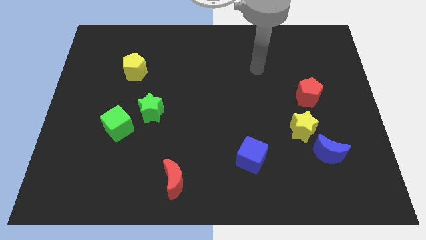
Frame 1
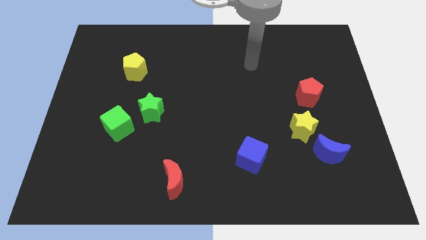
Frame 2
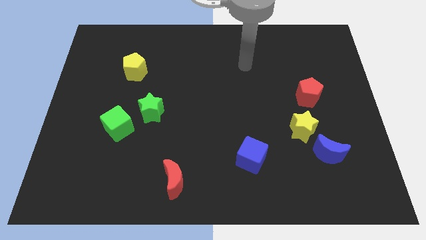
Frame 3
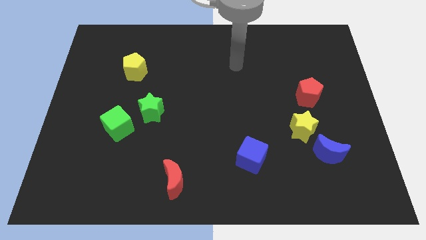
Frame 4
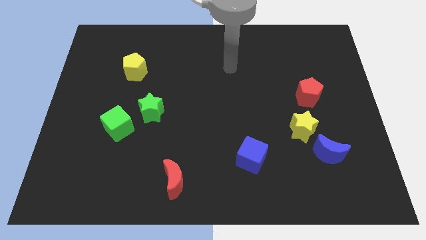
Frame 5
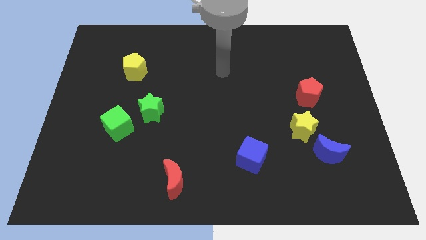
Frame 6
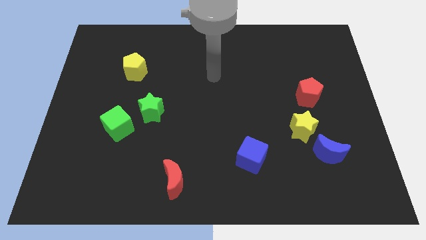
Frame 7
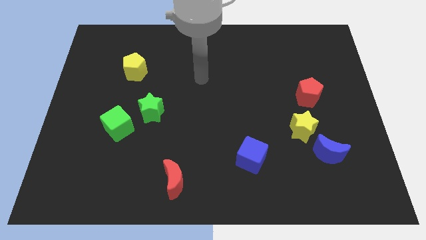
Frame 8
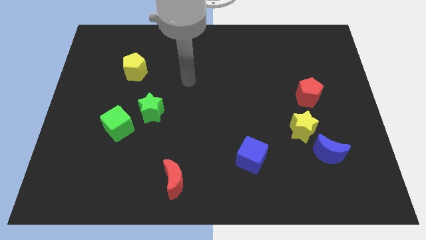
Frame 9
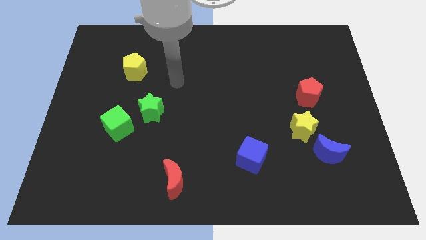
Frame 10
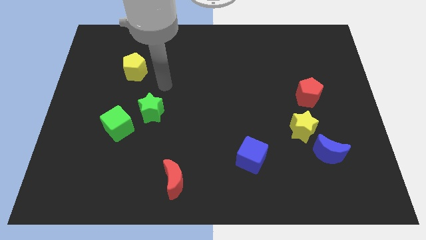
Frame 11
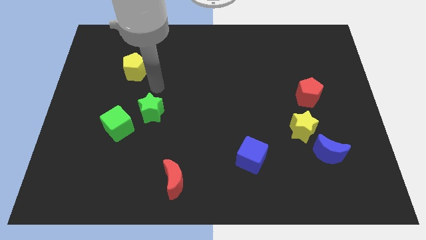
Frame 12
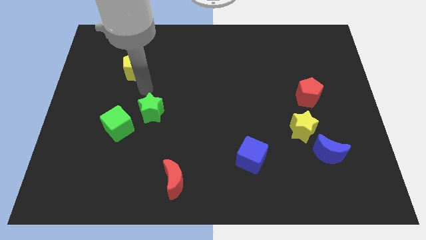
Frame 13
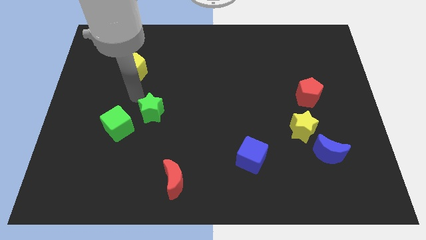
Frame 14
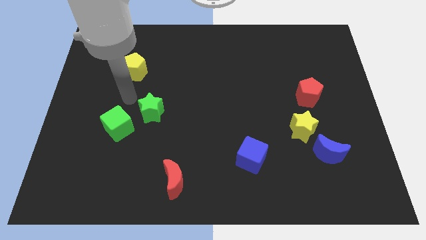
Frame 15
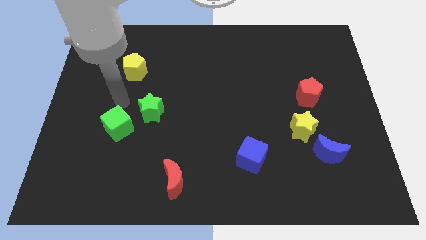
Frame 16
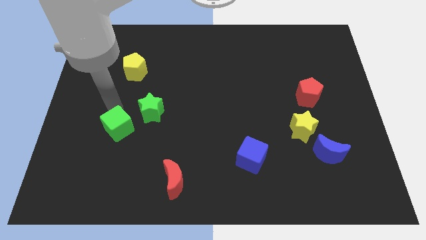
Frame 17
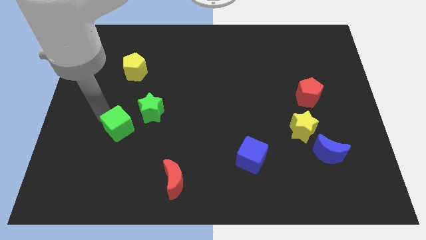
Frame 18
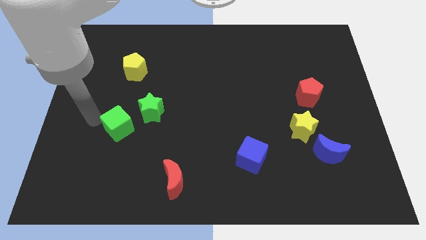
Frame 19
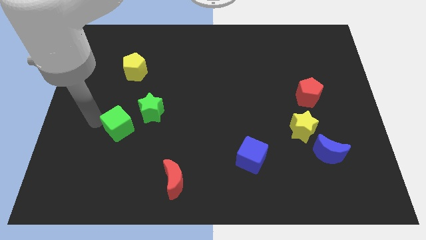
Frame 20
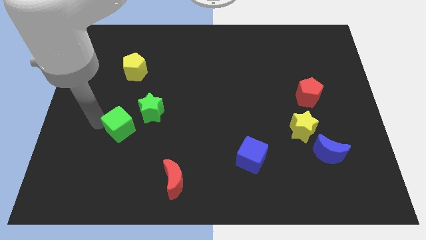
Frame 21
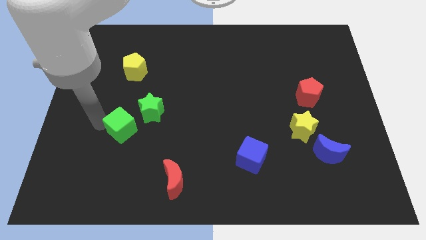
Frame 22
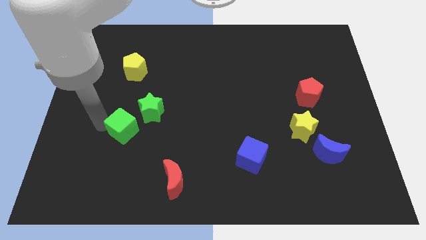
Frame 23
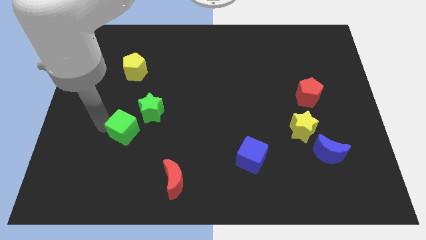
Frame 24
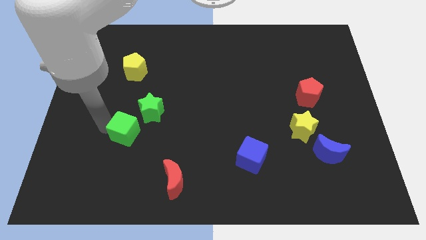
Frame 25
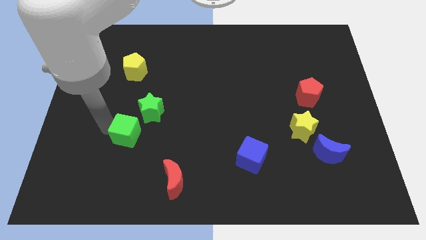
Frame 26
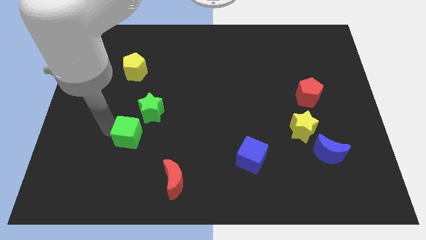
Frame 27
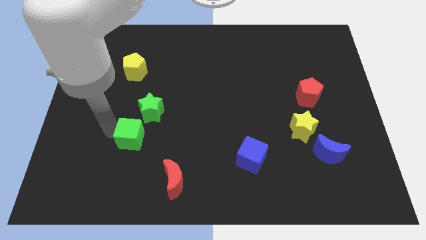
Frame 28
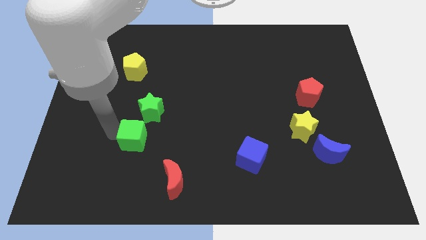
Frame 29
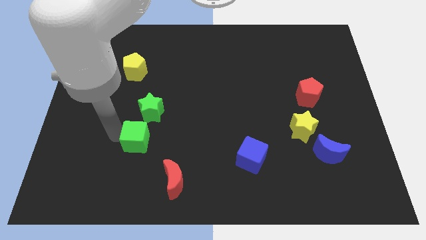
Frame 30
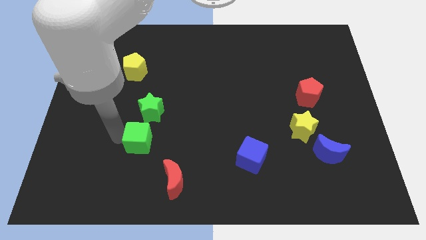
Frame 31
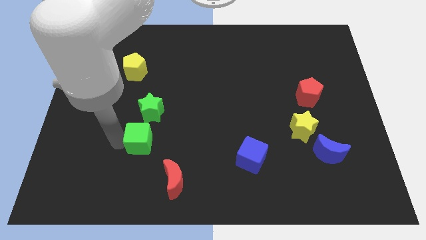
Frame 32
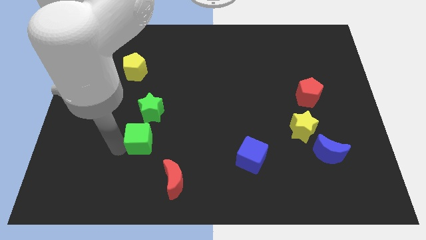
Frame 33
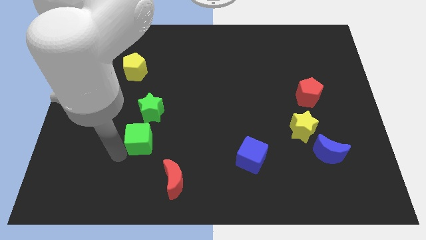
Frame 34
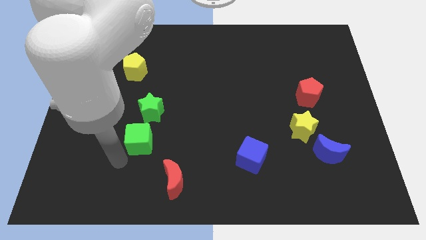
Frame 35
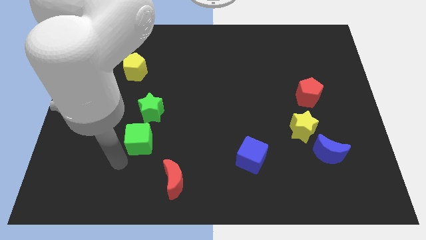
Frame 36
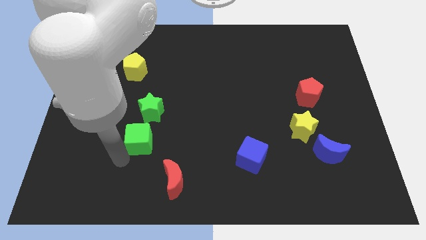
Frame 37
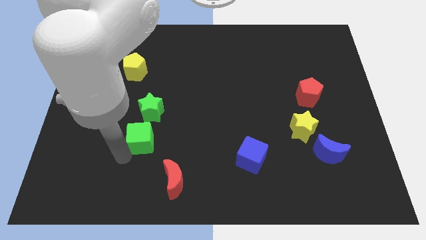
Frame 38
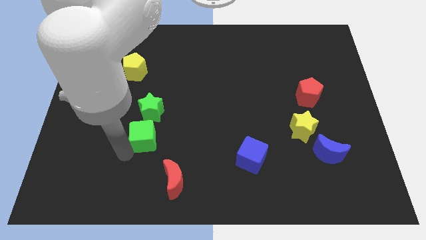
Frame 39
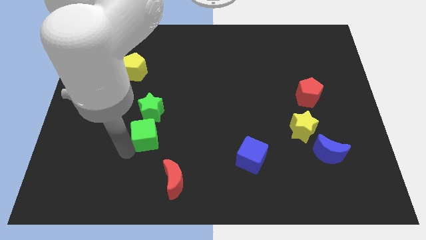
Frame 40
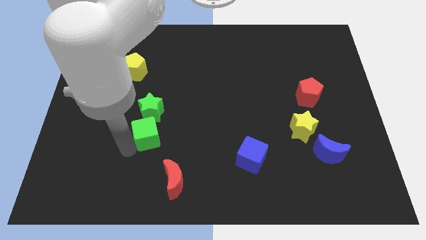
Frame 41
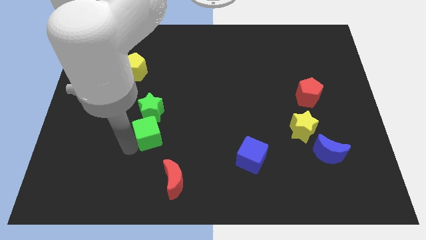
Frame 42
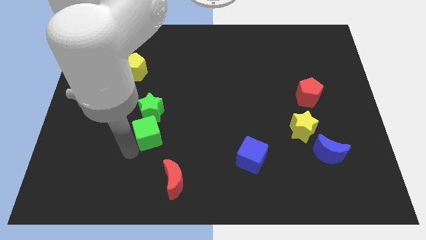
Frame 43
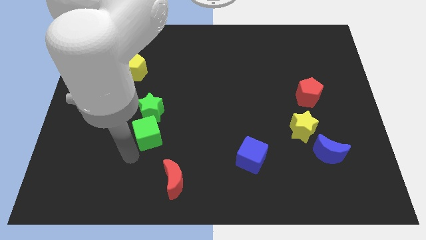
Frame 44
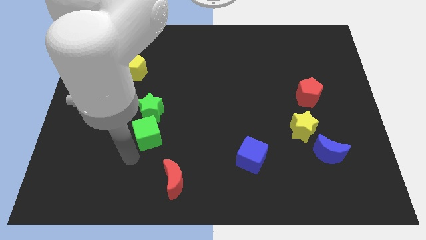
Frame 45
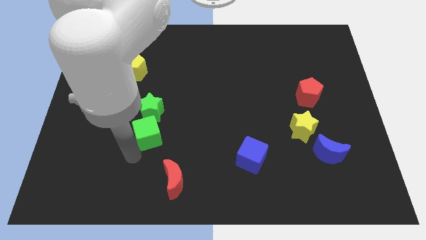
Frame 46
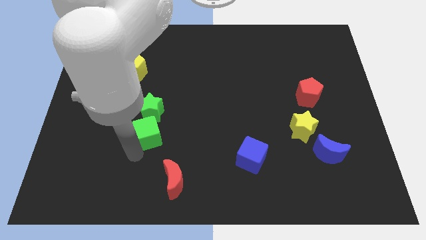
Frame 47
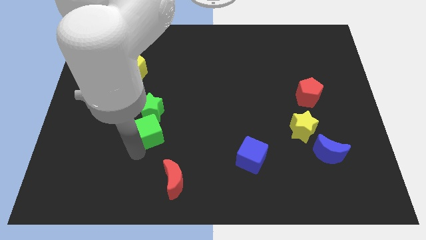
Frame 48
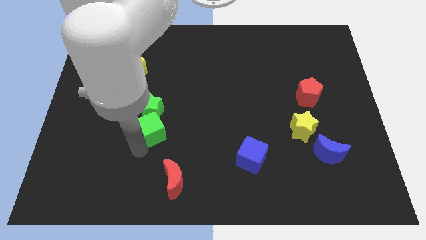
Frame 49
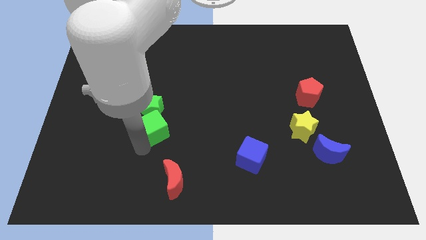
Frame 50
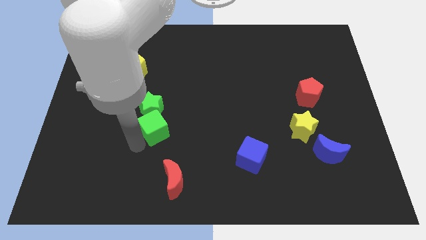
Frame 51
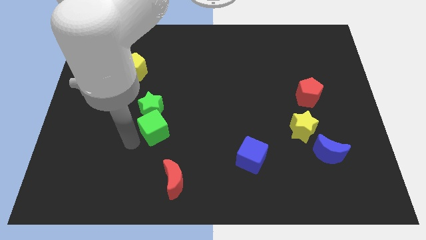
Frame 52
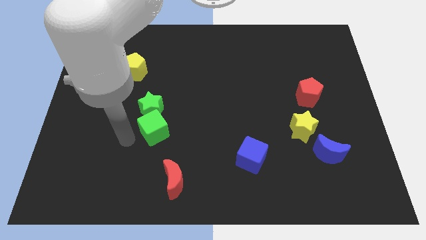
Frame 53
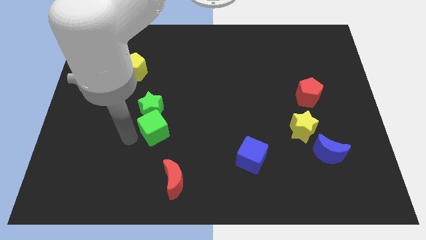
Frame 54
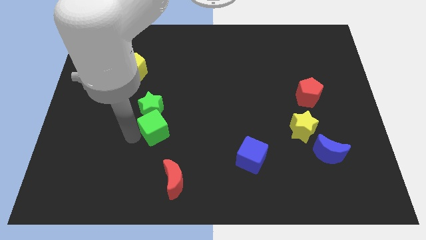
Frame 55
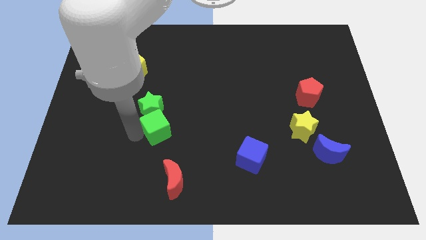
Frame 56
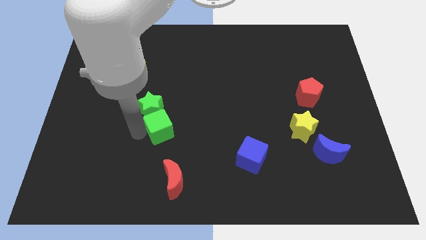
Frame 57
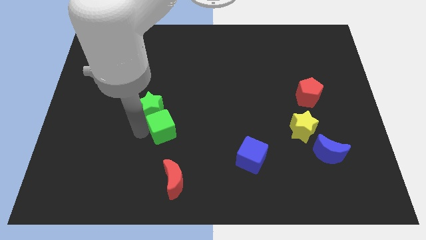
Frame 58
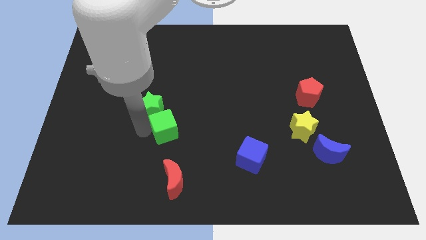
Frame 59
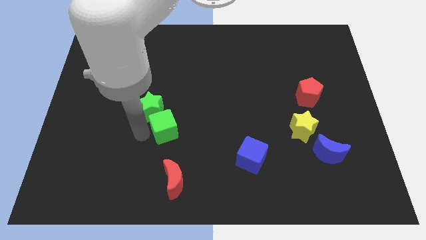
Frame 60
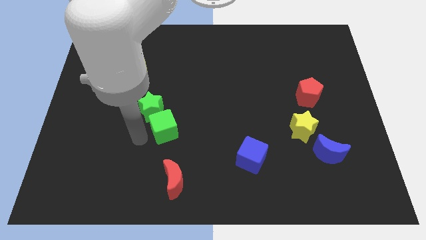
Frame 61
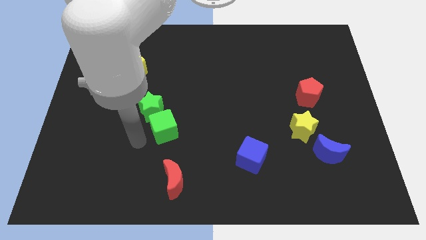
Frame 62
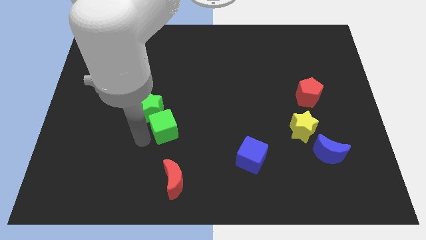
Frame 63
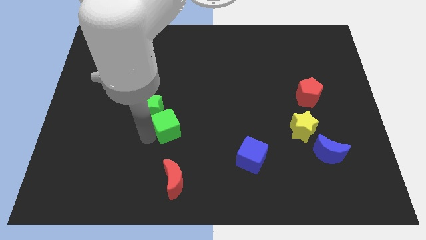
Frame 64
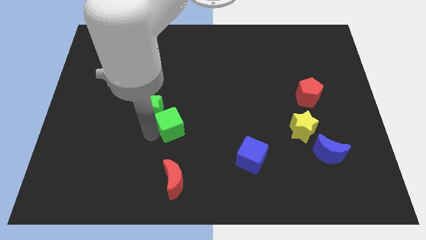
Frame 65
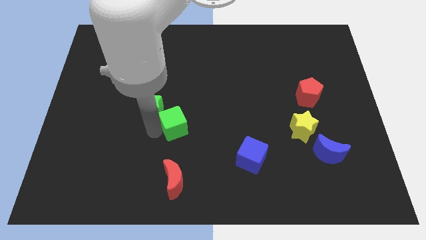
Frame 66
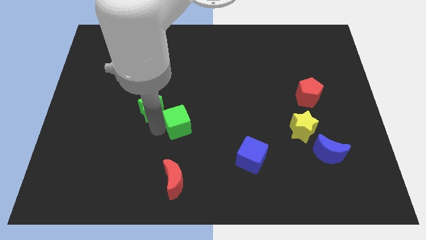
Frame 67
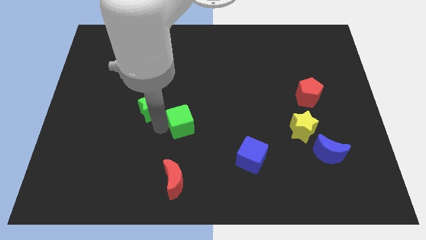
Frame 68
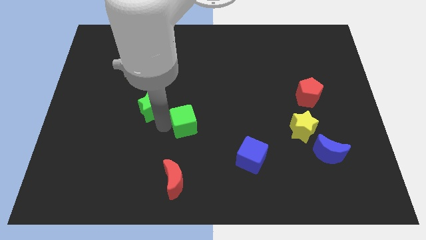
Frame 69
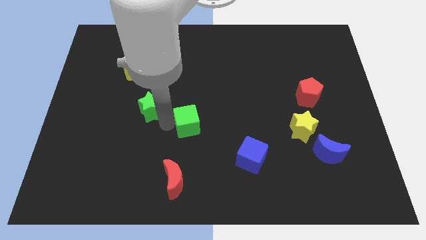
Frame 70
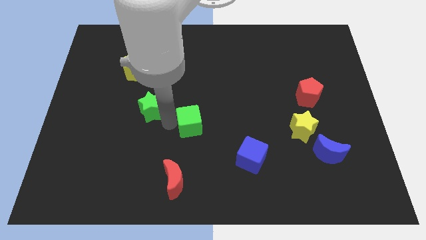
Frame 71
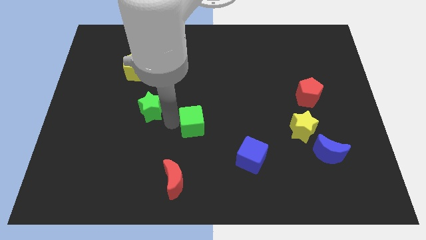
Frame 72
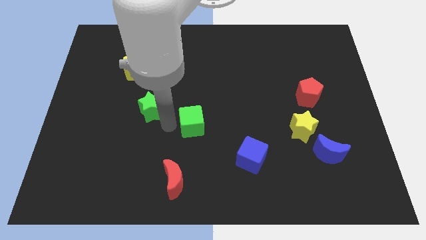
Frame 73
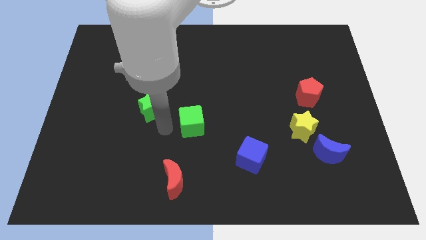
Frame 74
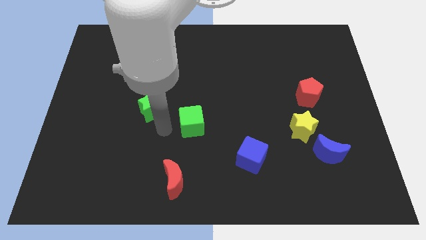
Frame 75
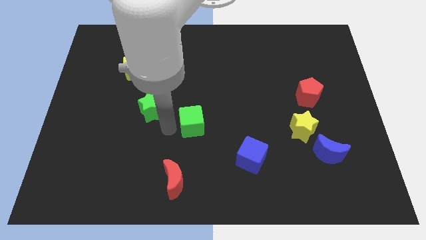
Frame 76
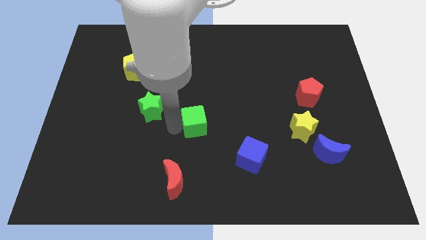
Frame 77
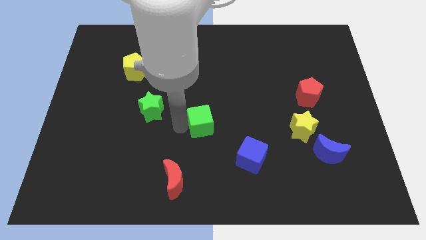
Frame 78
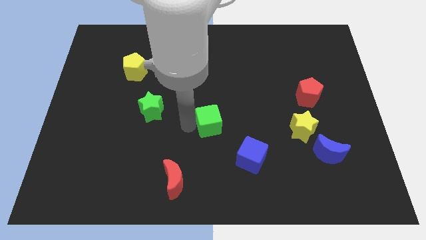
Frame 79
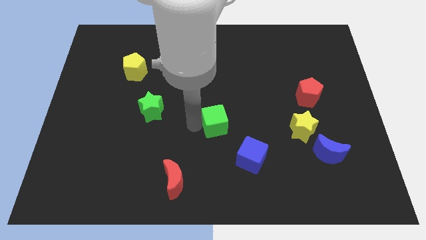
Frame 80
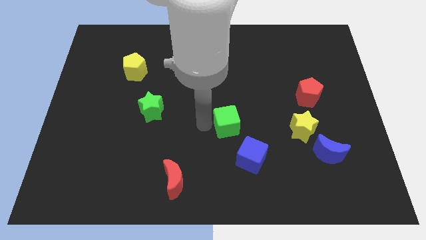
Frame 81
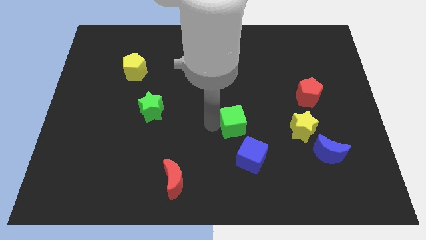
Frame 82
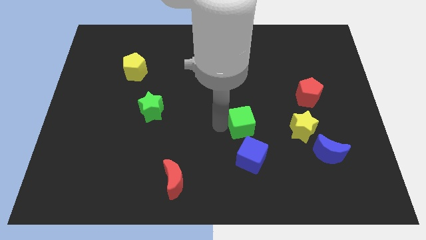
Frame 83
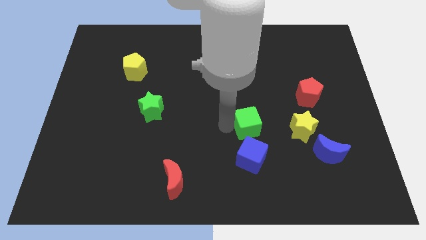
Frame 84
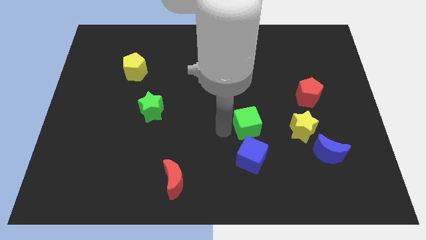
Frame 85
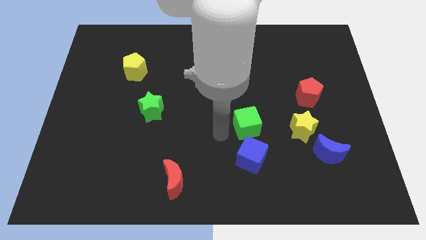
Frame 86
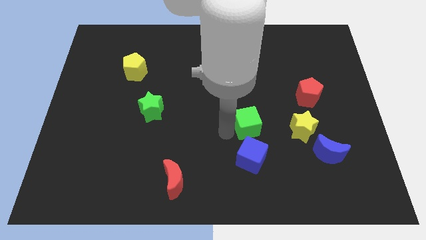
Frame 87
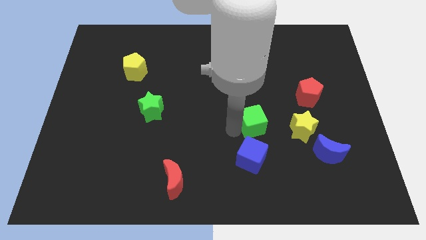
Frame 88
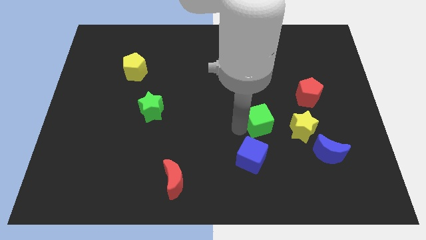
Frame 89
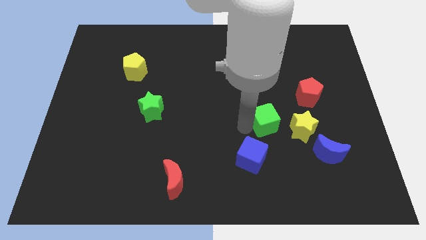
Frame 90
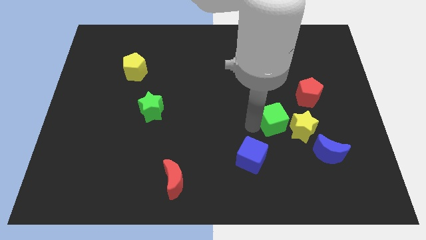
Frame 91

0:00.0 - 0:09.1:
slide the green cube diagonally down and to the left of the red pentagon
